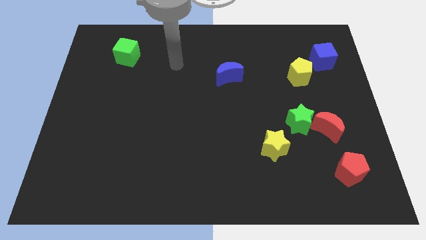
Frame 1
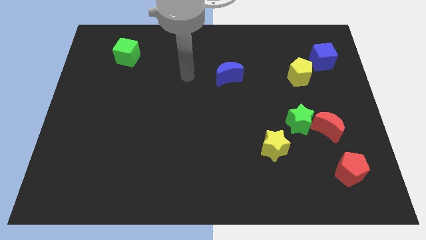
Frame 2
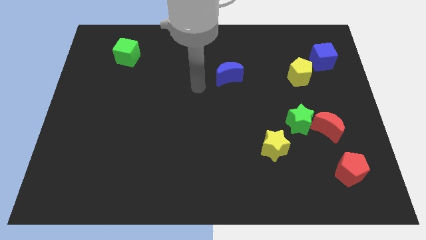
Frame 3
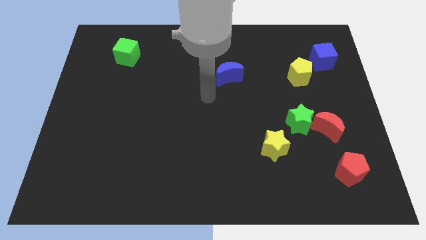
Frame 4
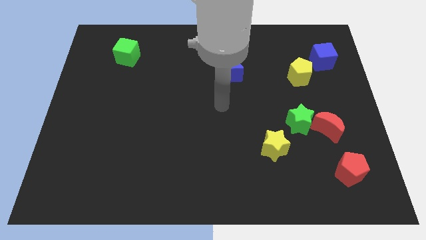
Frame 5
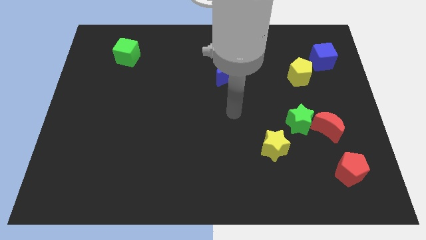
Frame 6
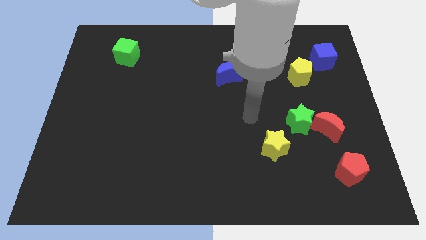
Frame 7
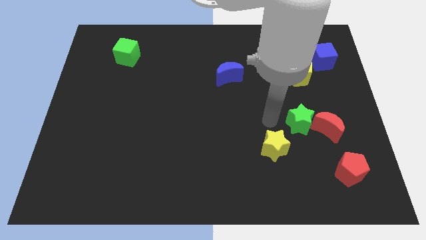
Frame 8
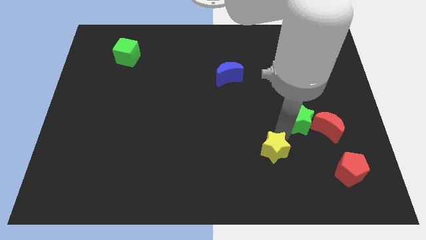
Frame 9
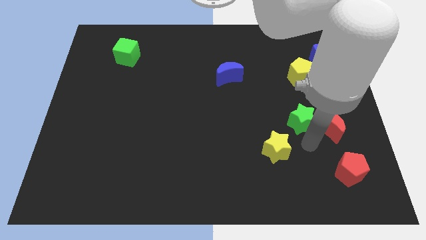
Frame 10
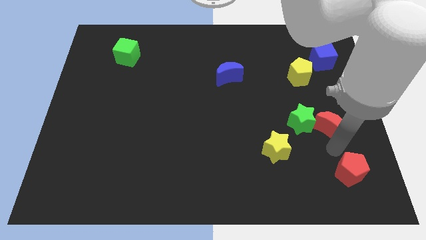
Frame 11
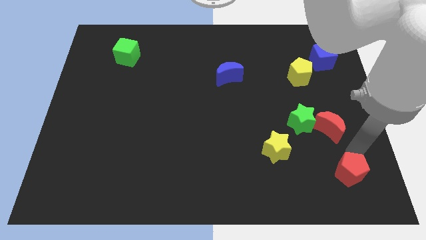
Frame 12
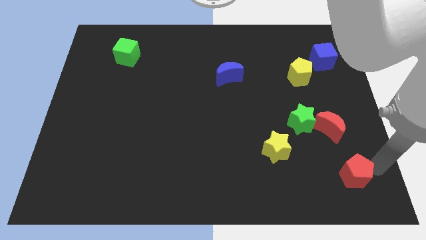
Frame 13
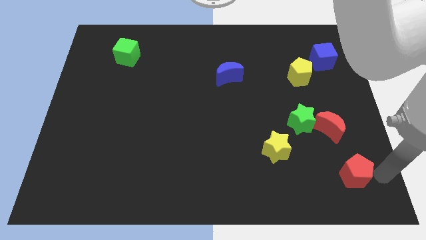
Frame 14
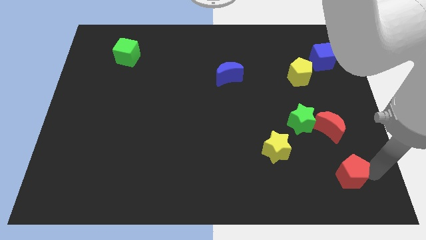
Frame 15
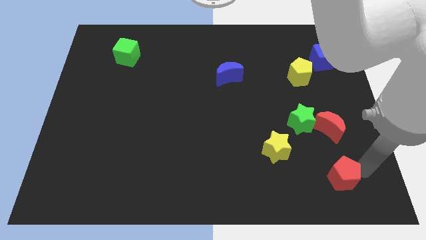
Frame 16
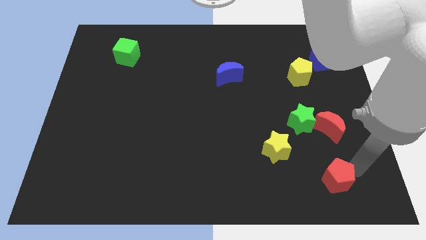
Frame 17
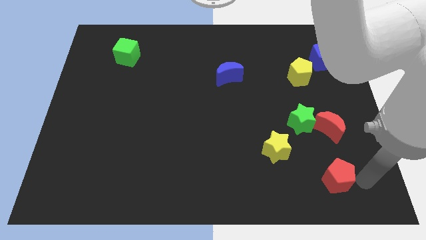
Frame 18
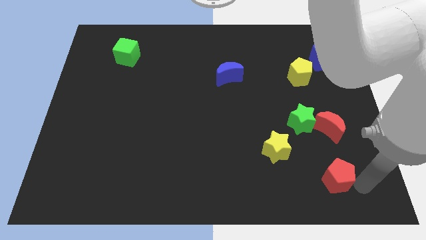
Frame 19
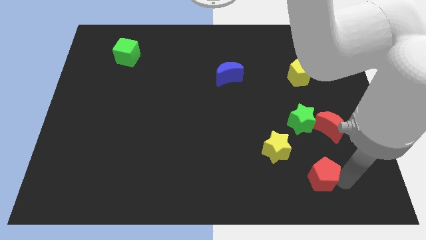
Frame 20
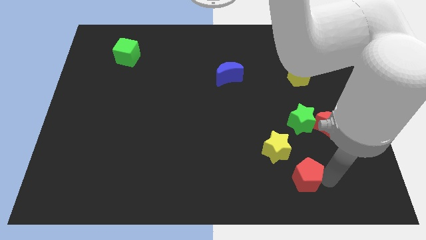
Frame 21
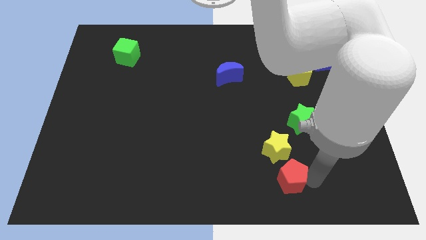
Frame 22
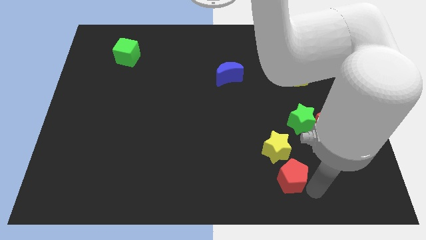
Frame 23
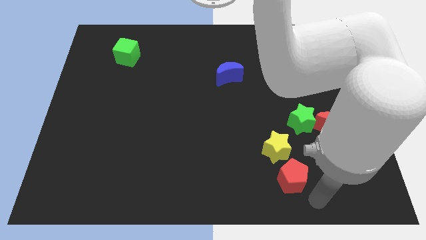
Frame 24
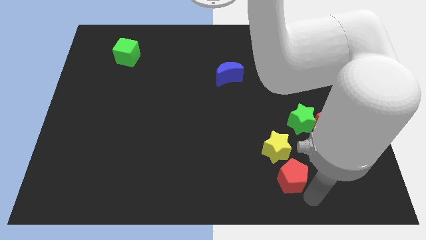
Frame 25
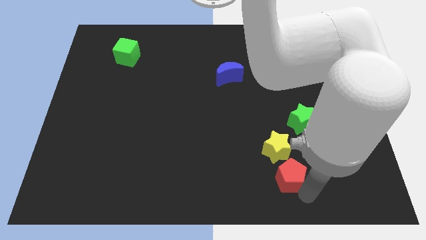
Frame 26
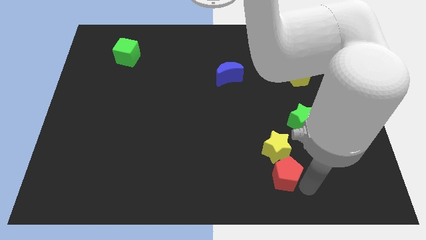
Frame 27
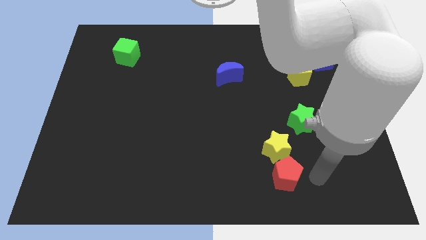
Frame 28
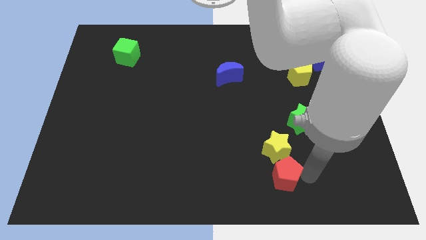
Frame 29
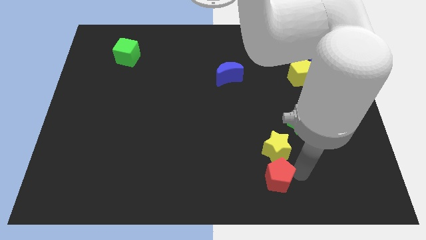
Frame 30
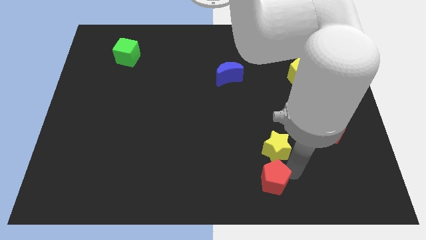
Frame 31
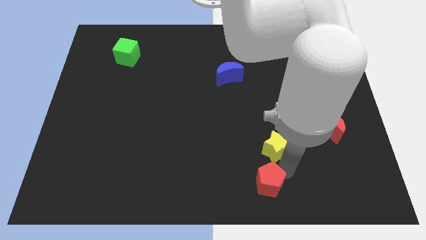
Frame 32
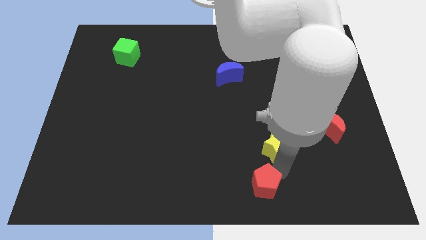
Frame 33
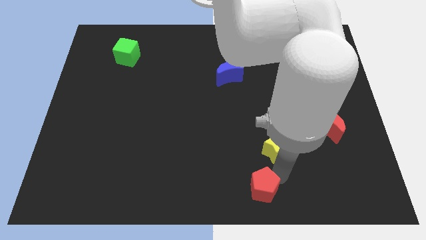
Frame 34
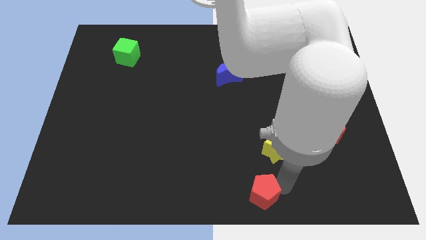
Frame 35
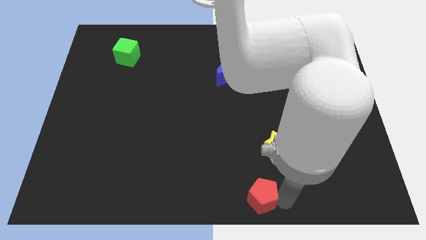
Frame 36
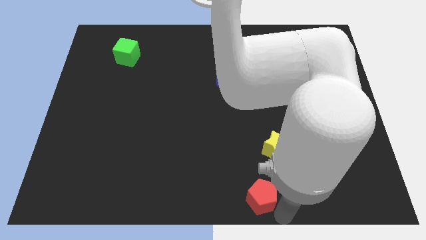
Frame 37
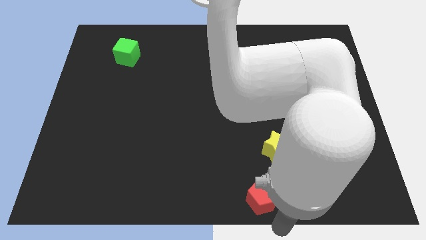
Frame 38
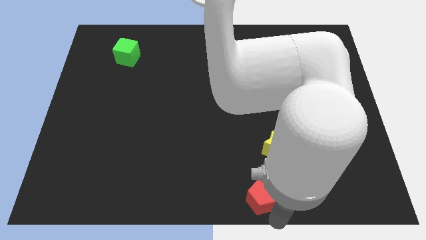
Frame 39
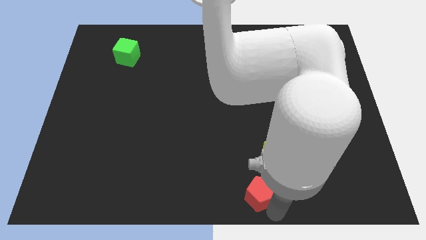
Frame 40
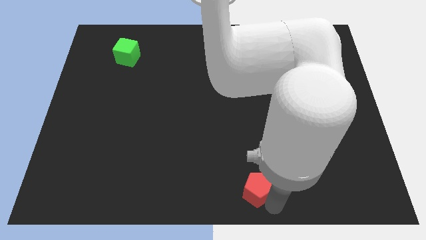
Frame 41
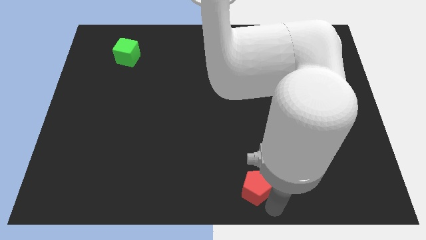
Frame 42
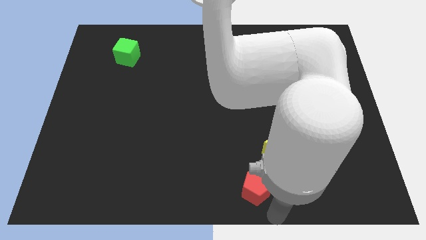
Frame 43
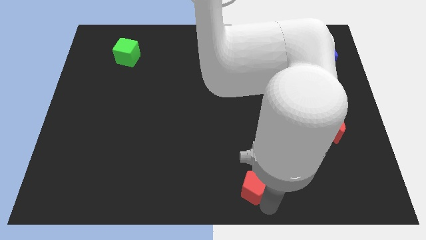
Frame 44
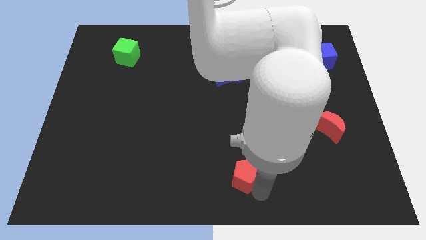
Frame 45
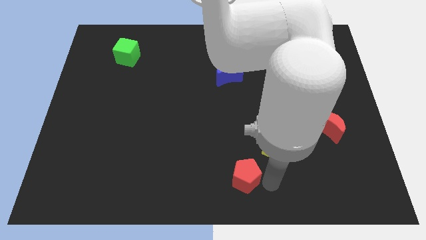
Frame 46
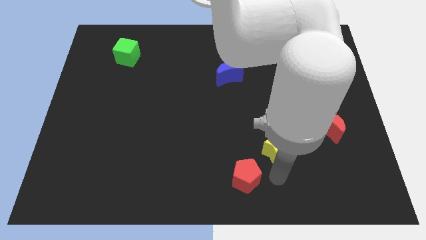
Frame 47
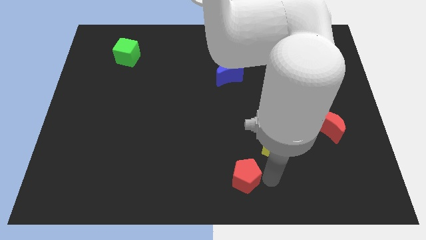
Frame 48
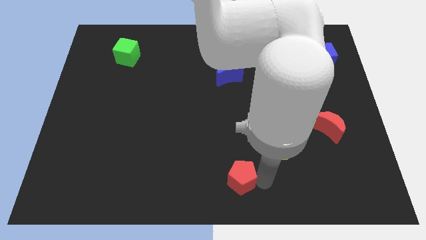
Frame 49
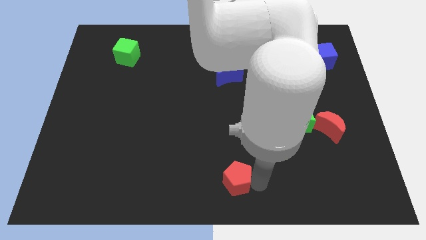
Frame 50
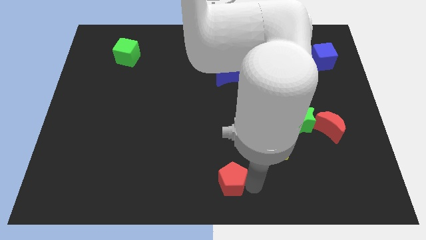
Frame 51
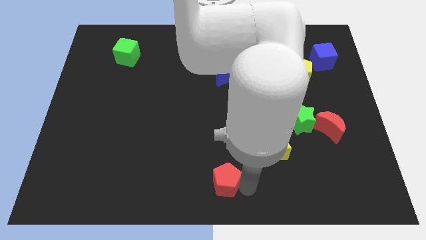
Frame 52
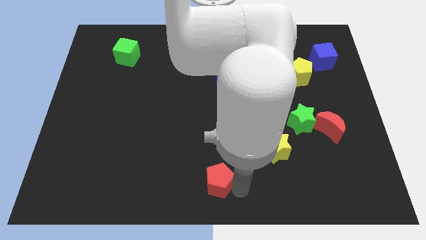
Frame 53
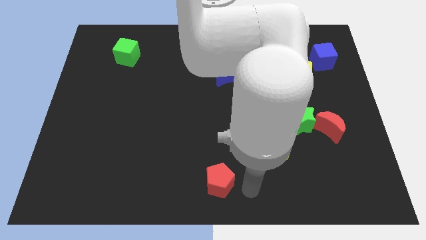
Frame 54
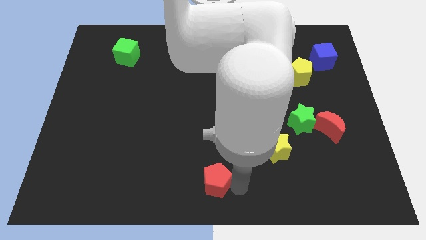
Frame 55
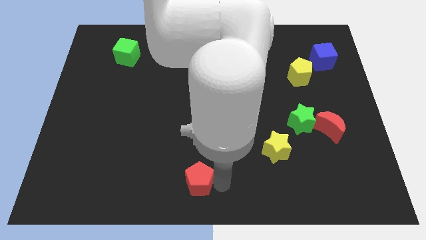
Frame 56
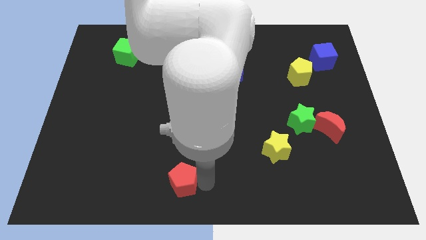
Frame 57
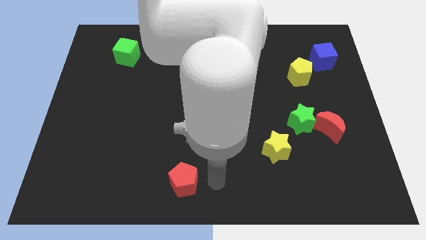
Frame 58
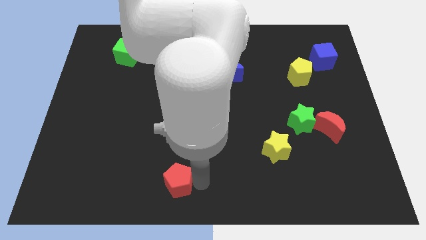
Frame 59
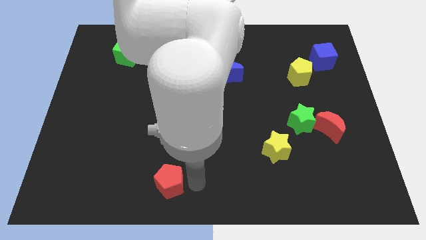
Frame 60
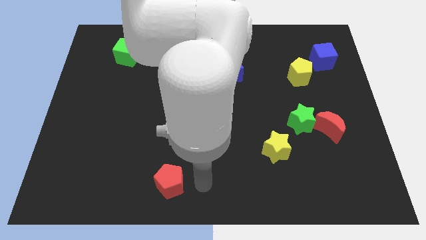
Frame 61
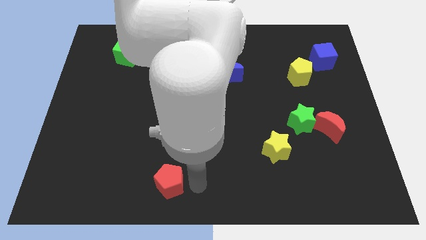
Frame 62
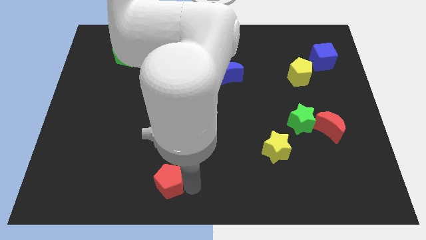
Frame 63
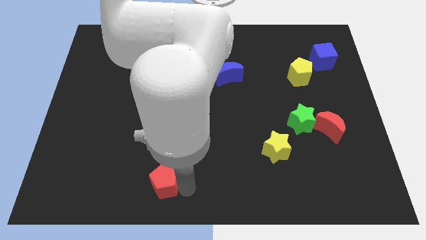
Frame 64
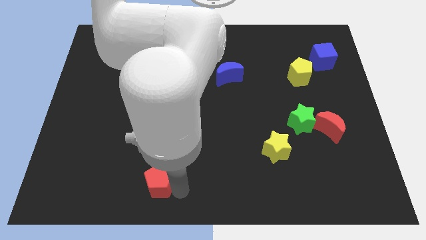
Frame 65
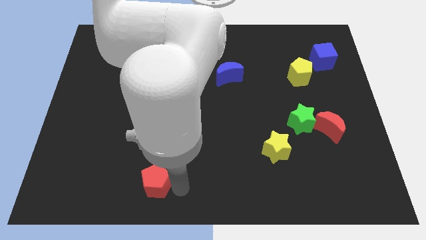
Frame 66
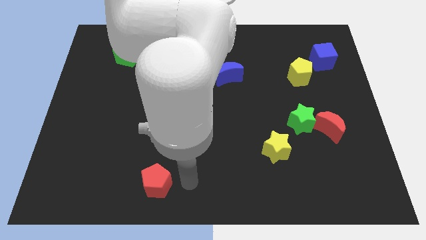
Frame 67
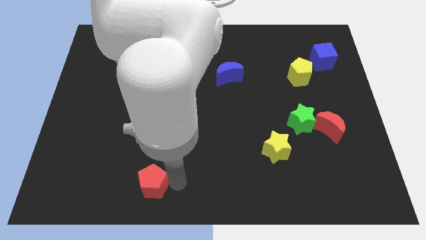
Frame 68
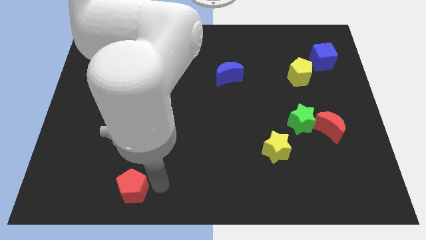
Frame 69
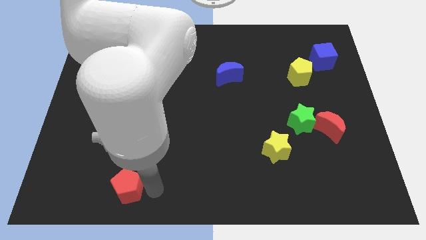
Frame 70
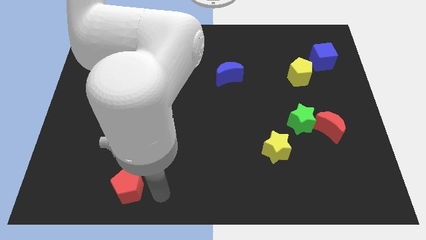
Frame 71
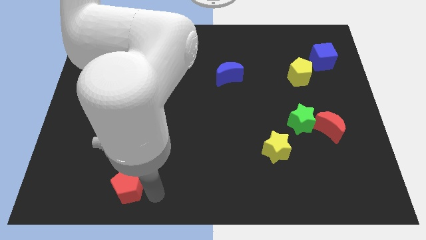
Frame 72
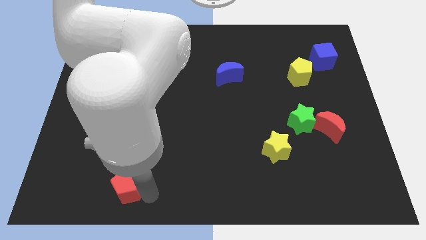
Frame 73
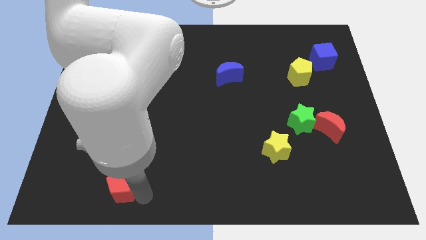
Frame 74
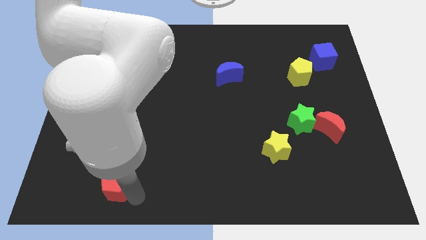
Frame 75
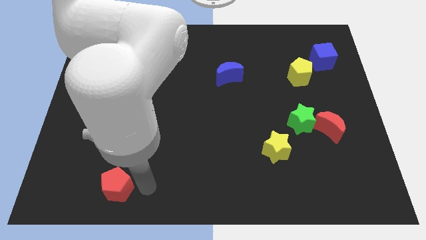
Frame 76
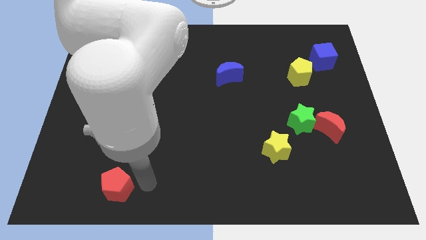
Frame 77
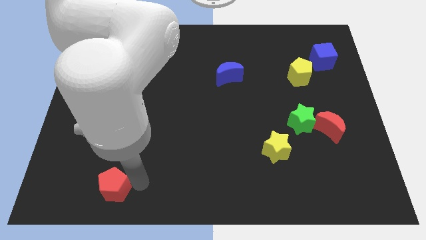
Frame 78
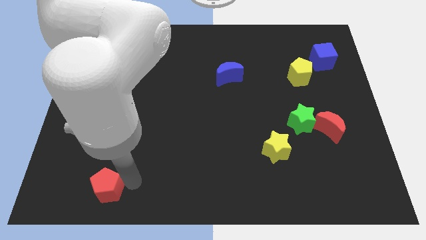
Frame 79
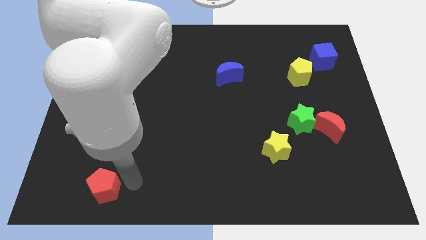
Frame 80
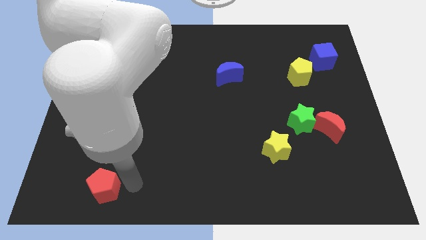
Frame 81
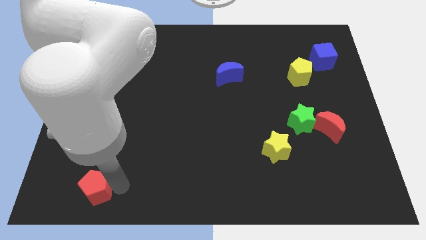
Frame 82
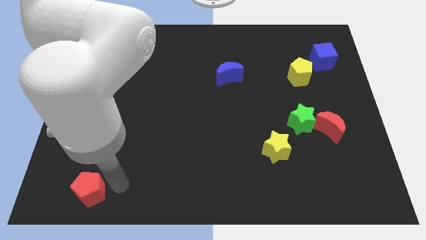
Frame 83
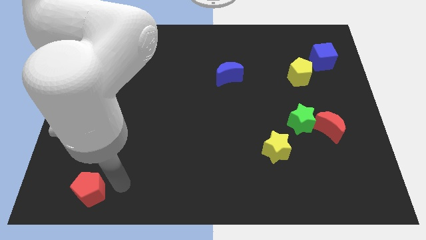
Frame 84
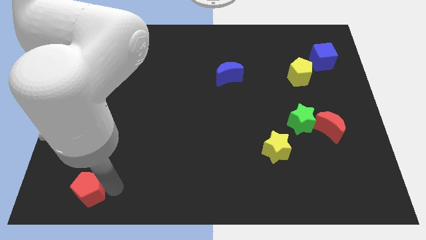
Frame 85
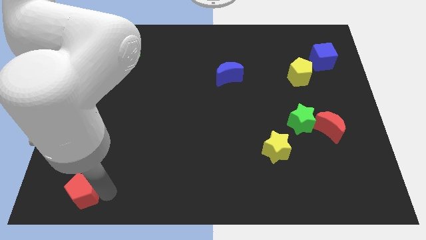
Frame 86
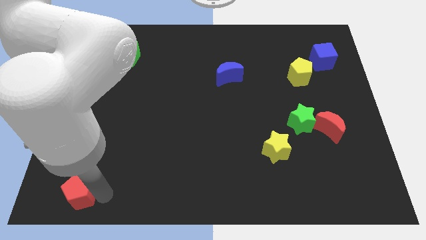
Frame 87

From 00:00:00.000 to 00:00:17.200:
push the red pentagon to the bottom left
